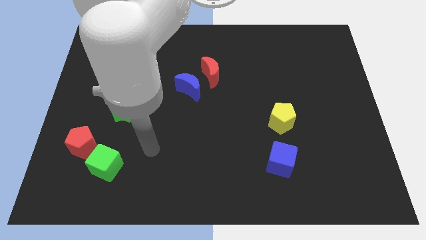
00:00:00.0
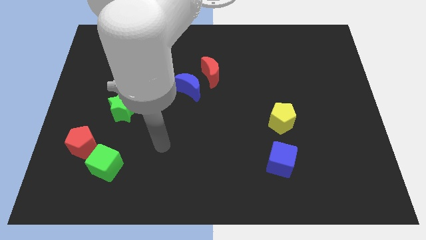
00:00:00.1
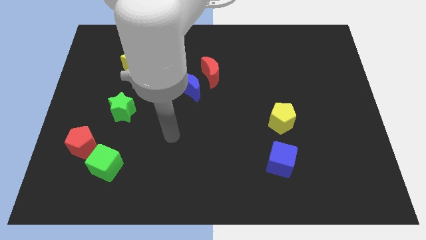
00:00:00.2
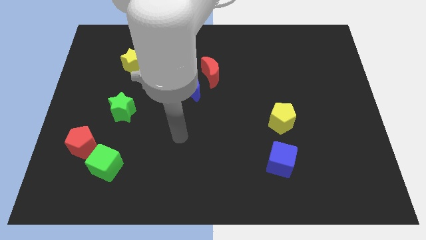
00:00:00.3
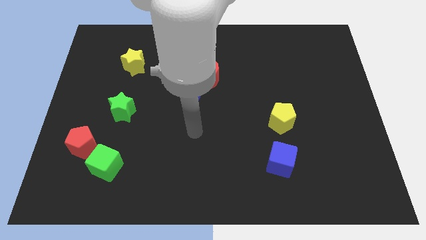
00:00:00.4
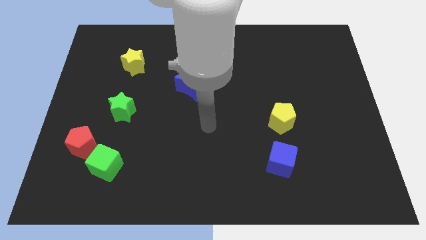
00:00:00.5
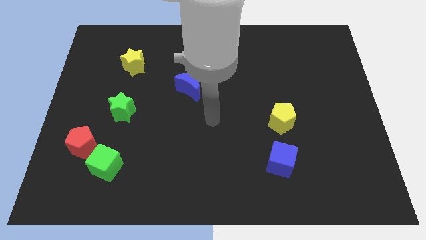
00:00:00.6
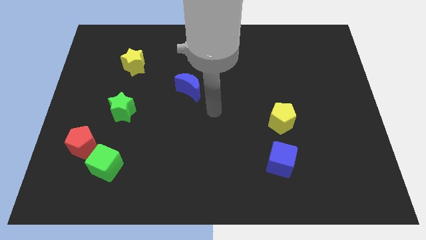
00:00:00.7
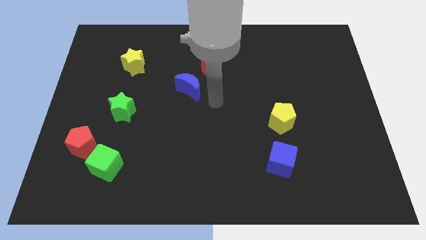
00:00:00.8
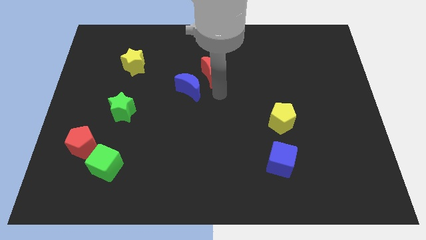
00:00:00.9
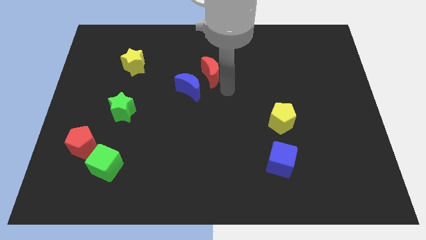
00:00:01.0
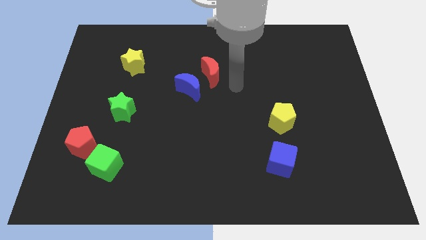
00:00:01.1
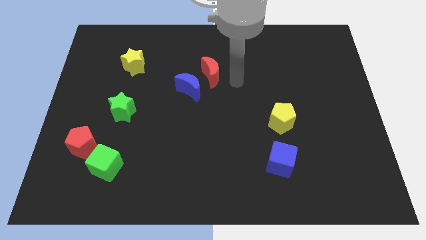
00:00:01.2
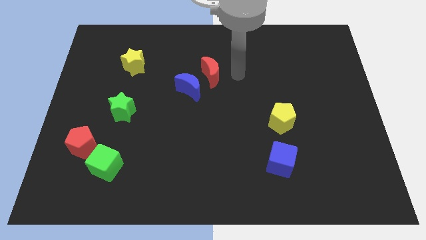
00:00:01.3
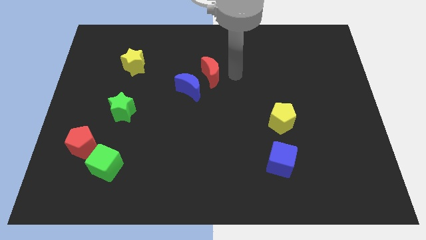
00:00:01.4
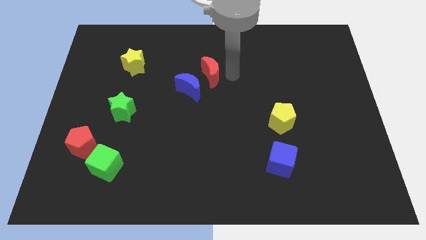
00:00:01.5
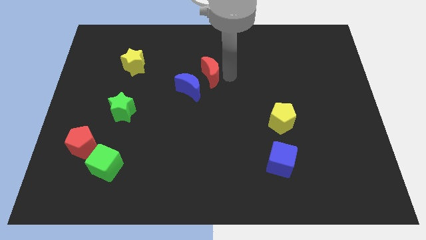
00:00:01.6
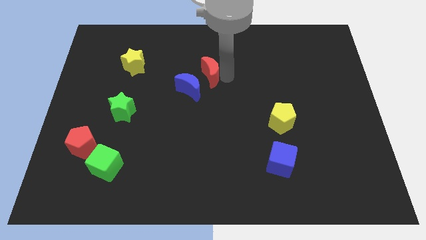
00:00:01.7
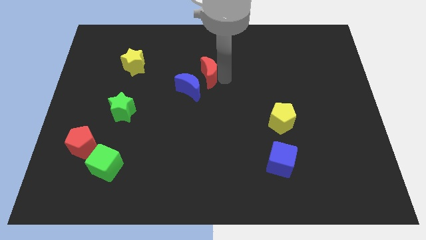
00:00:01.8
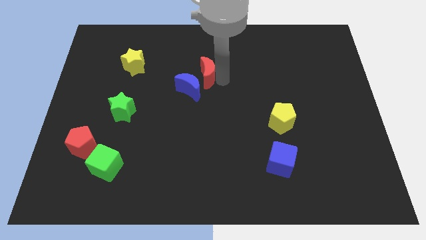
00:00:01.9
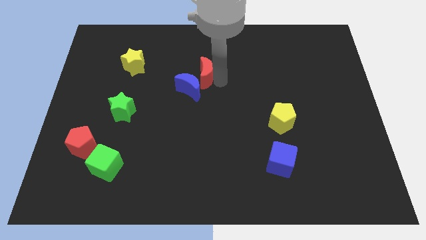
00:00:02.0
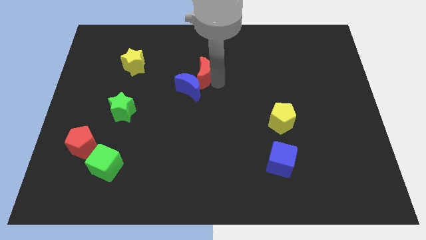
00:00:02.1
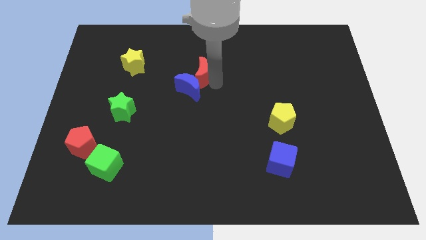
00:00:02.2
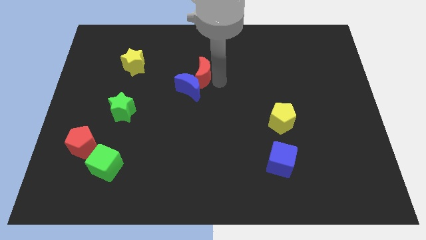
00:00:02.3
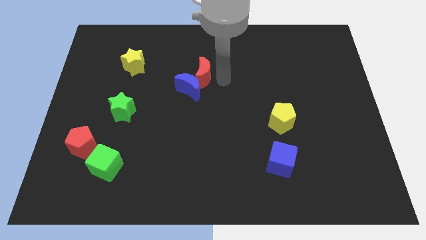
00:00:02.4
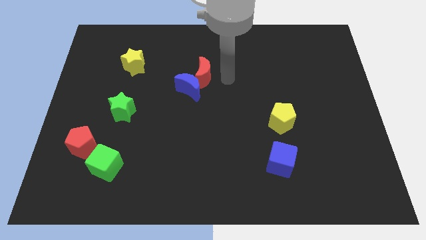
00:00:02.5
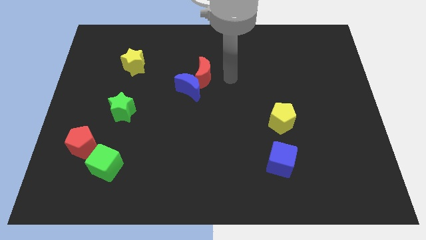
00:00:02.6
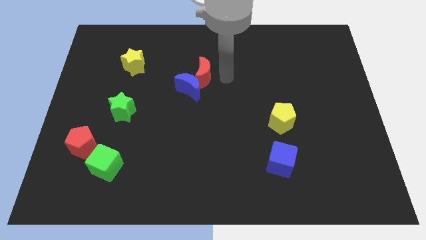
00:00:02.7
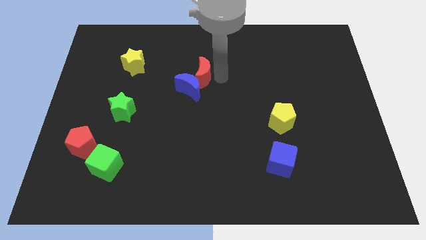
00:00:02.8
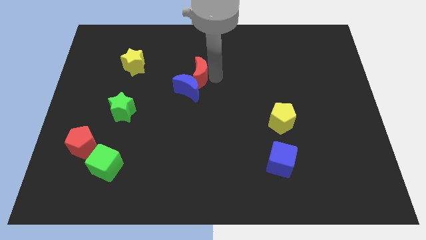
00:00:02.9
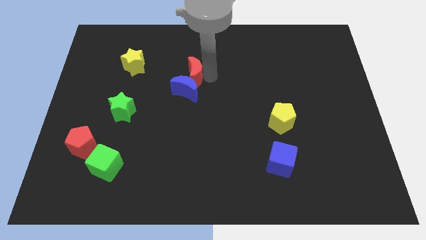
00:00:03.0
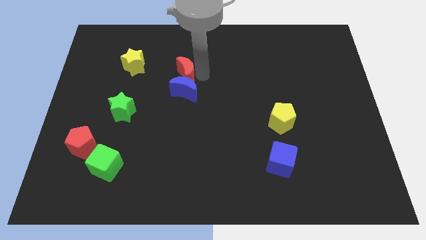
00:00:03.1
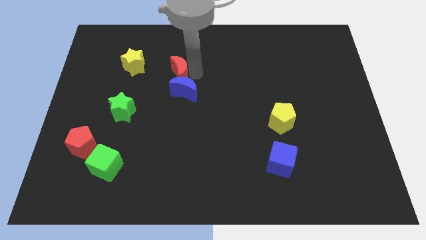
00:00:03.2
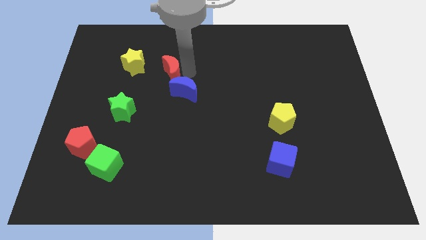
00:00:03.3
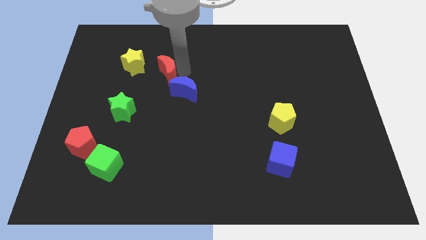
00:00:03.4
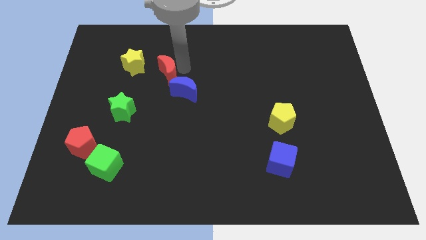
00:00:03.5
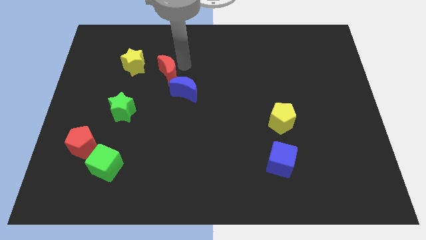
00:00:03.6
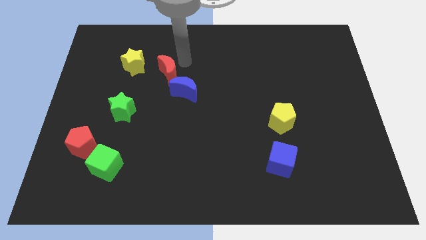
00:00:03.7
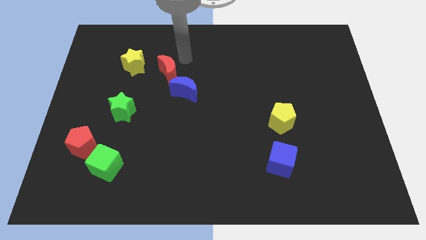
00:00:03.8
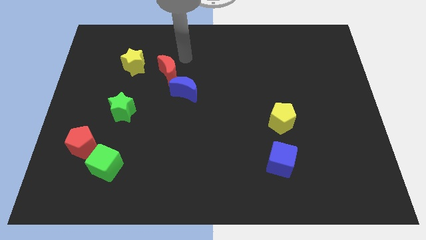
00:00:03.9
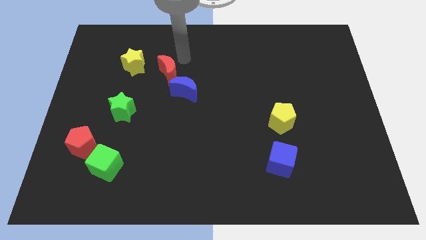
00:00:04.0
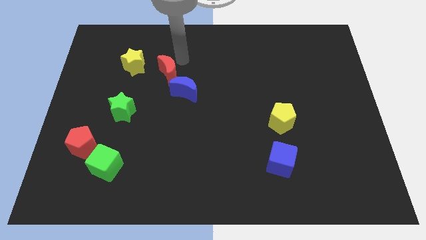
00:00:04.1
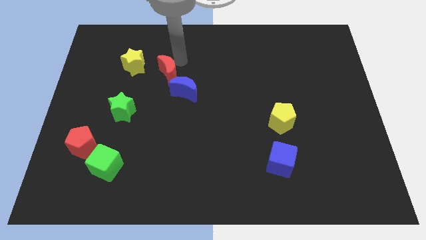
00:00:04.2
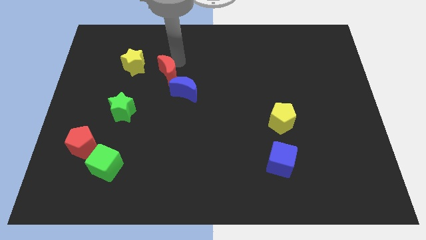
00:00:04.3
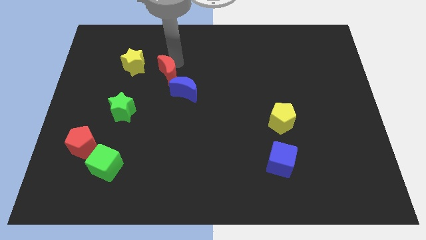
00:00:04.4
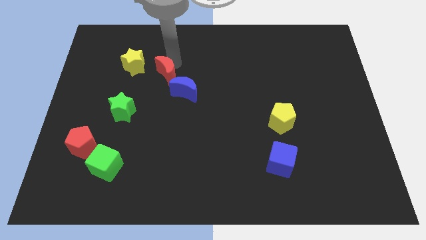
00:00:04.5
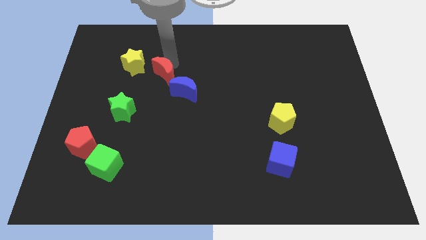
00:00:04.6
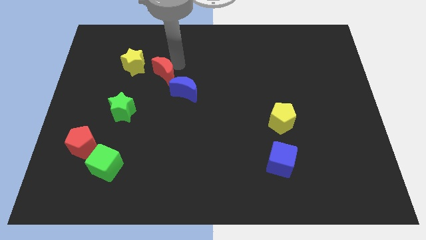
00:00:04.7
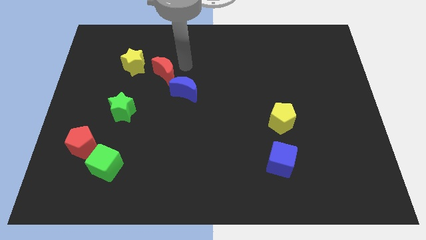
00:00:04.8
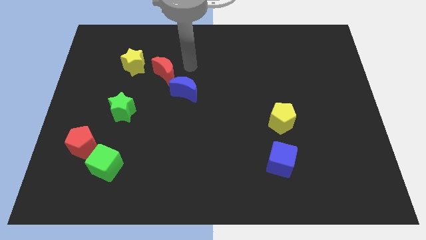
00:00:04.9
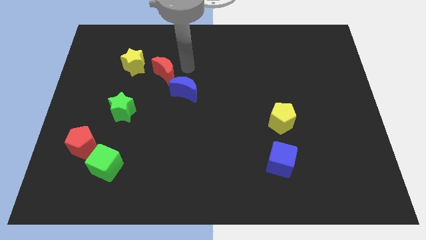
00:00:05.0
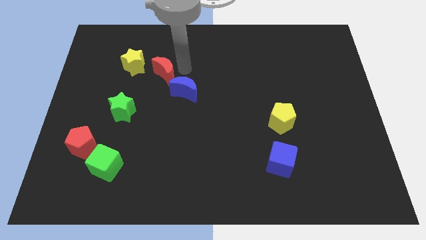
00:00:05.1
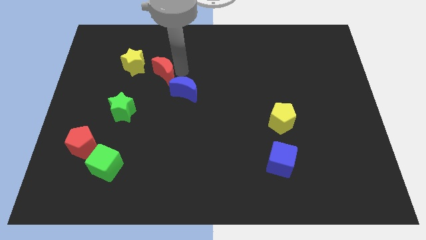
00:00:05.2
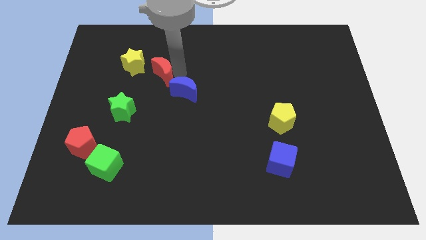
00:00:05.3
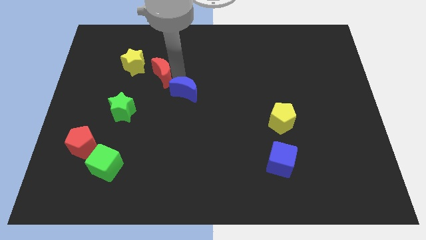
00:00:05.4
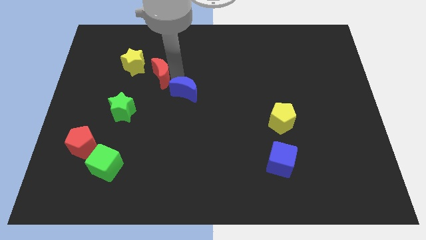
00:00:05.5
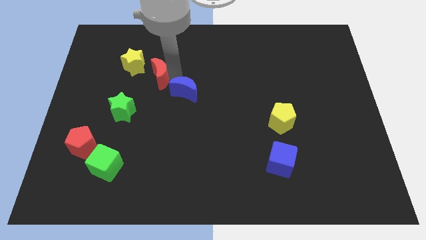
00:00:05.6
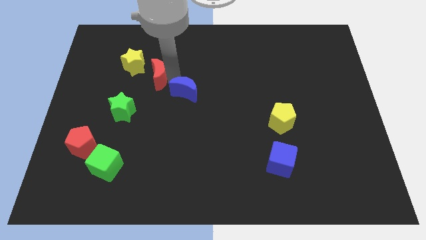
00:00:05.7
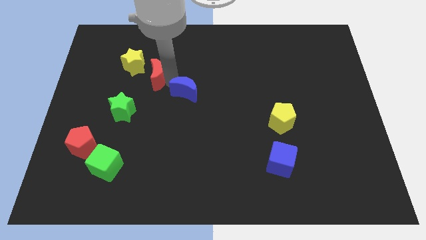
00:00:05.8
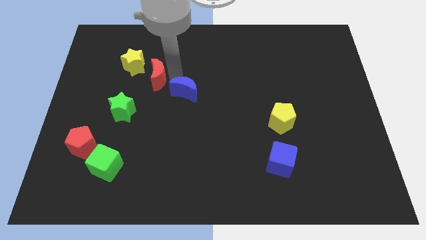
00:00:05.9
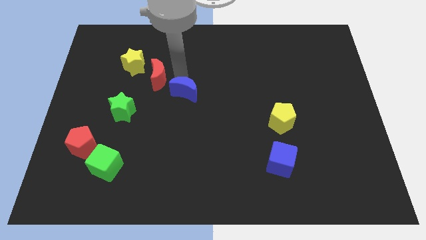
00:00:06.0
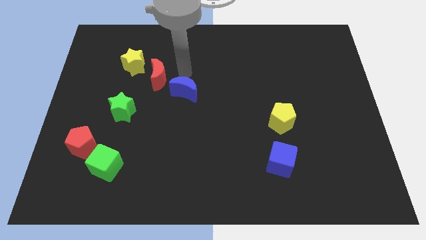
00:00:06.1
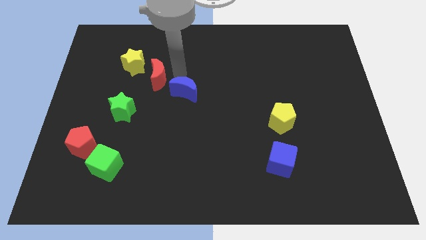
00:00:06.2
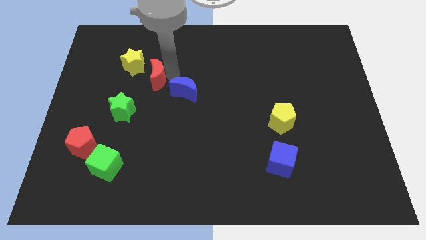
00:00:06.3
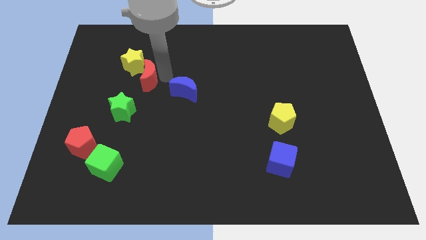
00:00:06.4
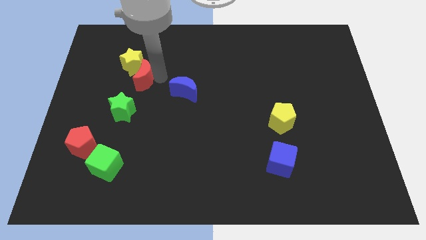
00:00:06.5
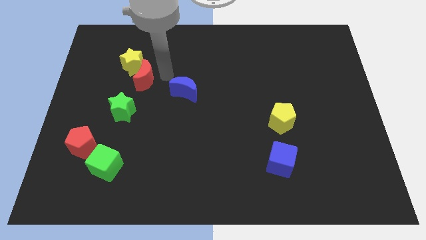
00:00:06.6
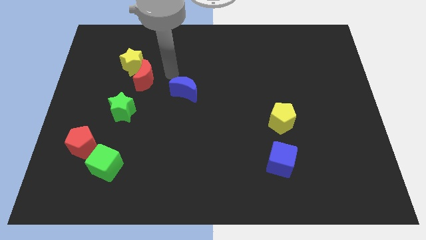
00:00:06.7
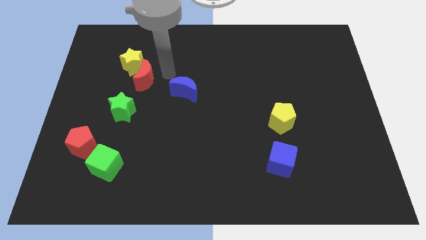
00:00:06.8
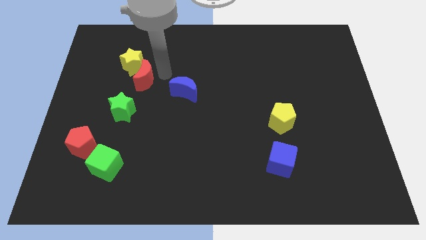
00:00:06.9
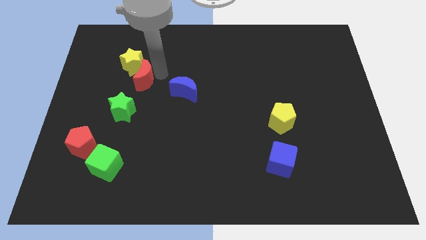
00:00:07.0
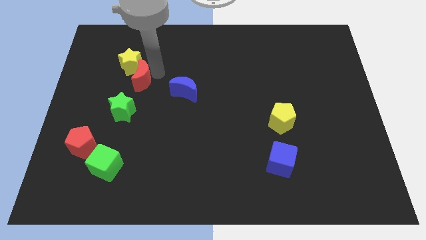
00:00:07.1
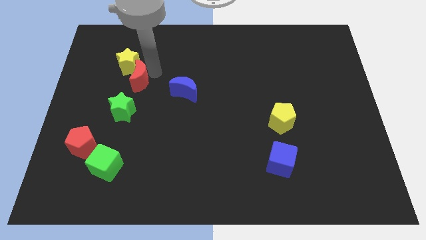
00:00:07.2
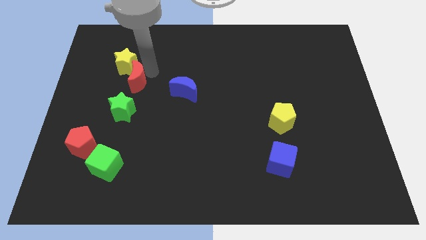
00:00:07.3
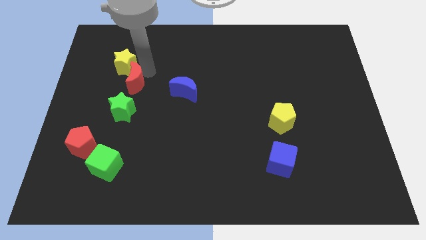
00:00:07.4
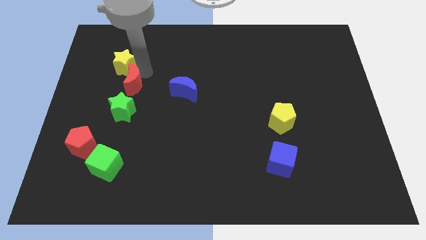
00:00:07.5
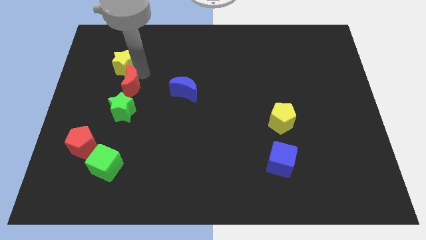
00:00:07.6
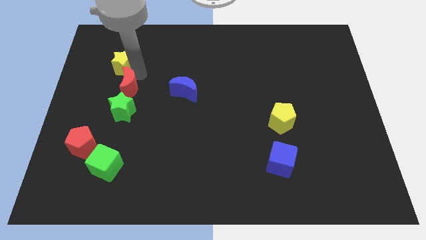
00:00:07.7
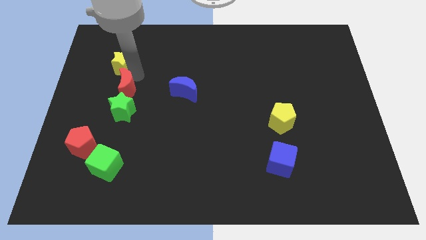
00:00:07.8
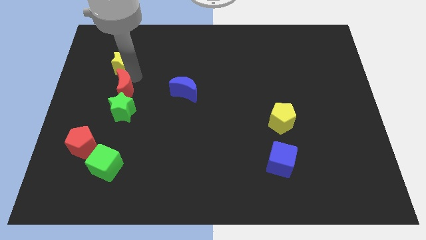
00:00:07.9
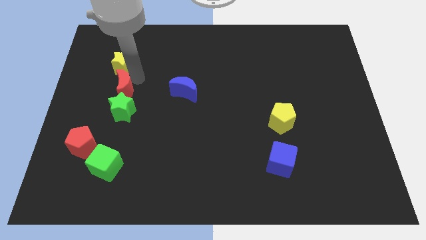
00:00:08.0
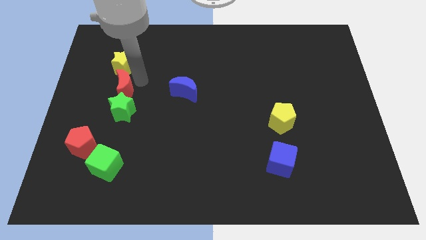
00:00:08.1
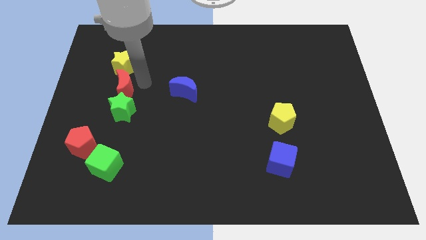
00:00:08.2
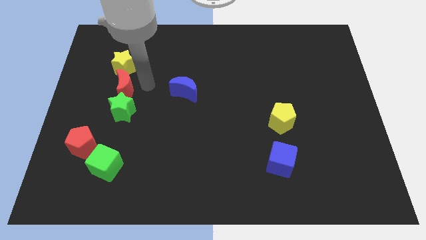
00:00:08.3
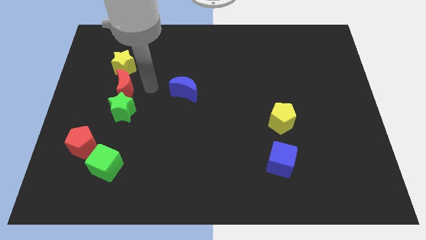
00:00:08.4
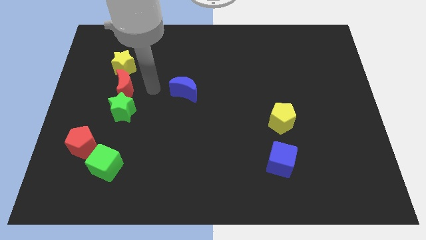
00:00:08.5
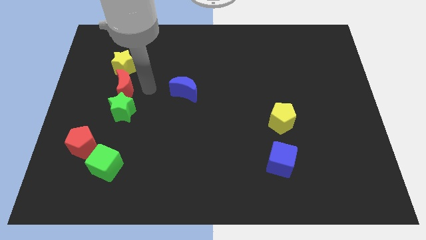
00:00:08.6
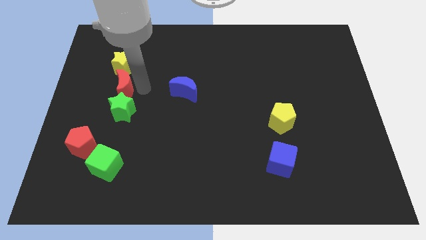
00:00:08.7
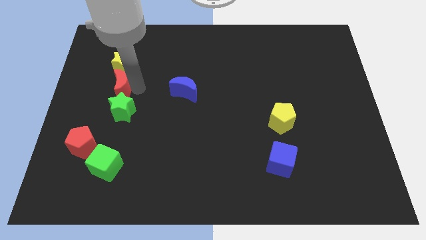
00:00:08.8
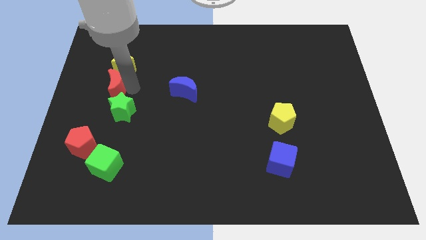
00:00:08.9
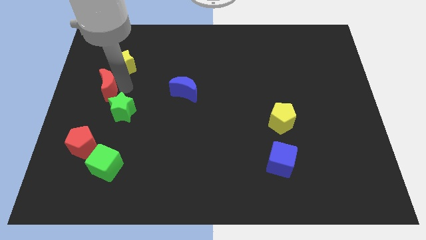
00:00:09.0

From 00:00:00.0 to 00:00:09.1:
slide the red moon to the center left
